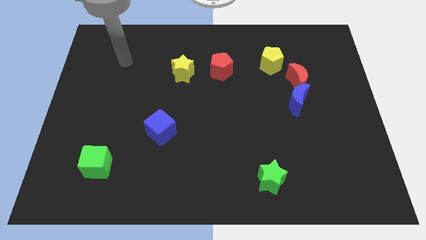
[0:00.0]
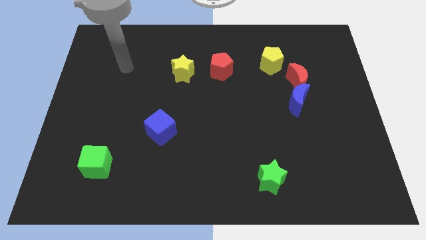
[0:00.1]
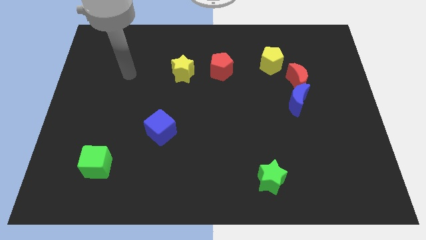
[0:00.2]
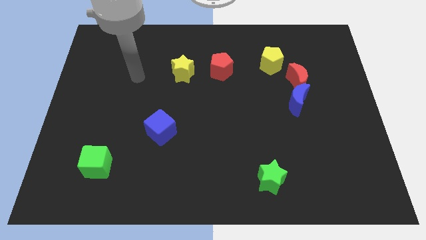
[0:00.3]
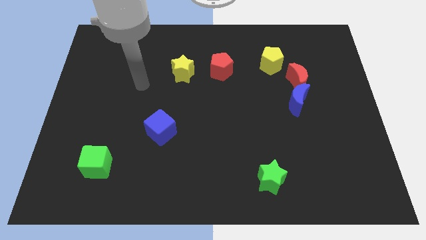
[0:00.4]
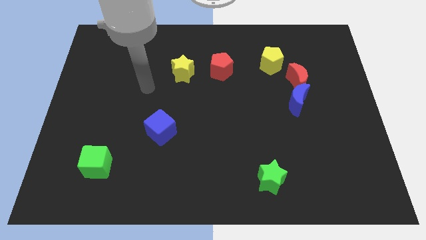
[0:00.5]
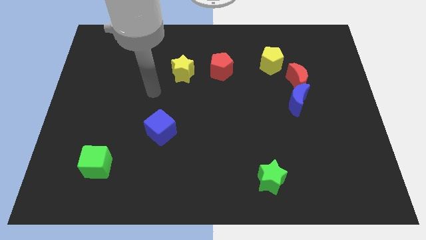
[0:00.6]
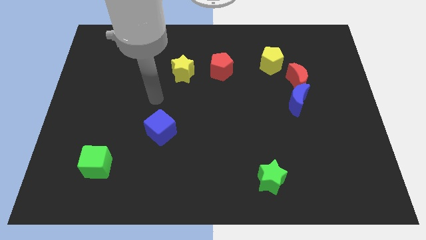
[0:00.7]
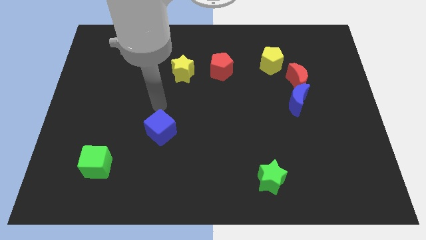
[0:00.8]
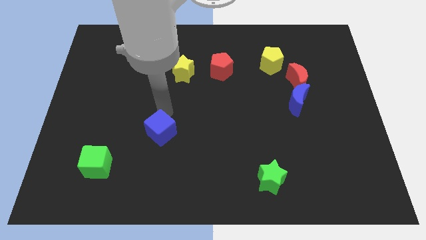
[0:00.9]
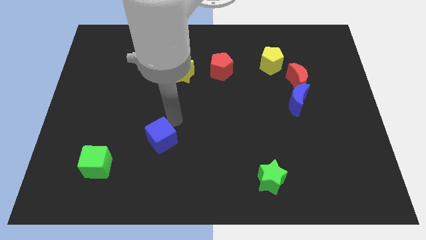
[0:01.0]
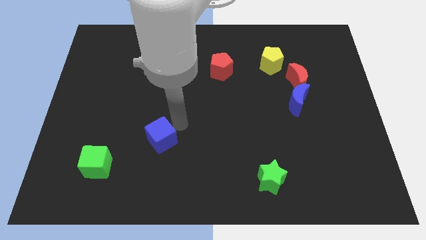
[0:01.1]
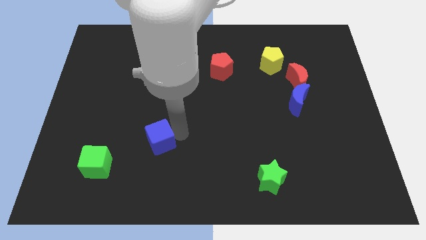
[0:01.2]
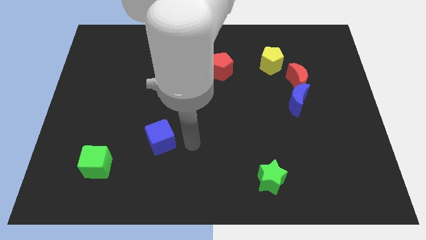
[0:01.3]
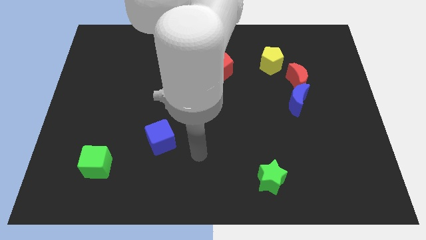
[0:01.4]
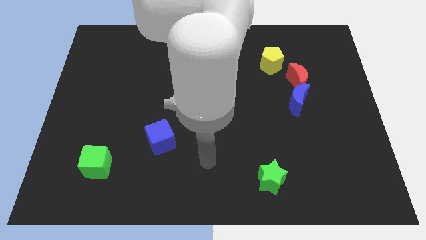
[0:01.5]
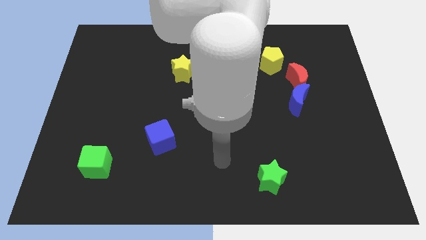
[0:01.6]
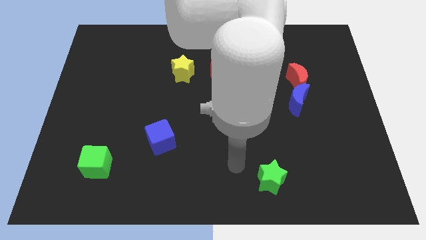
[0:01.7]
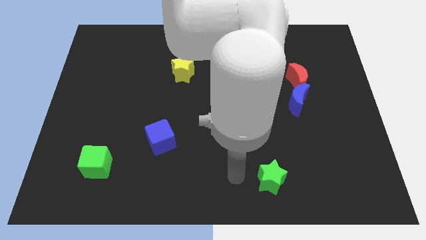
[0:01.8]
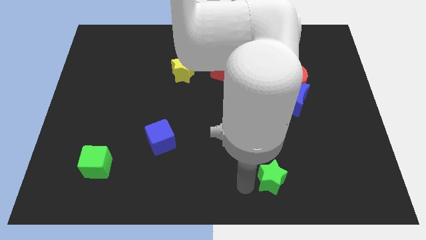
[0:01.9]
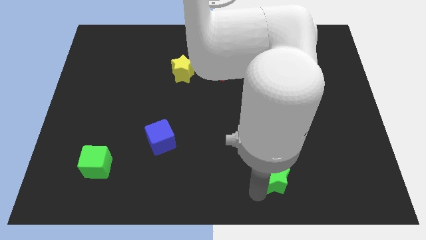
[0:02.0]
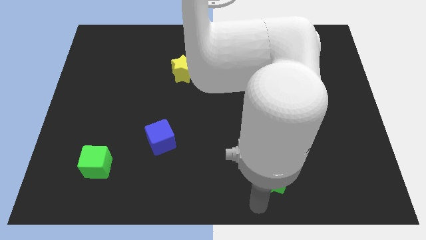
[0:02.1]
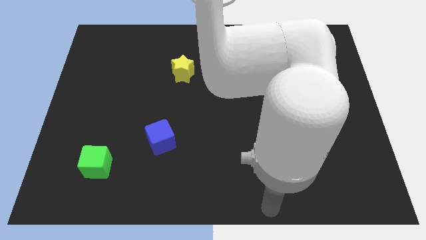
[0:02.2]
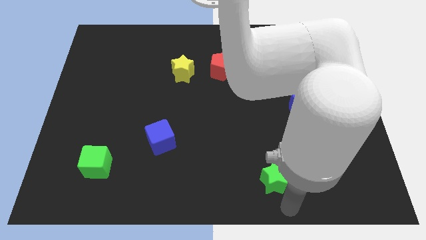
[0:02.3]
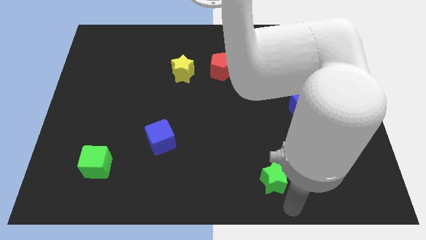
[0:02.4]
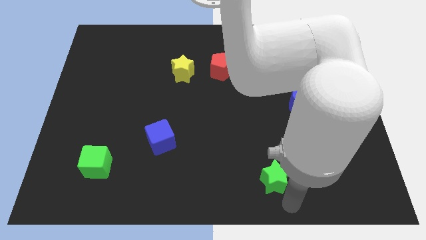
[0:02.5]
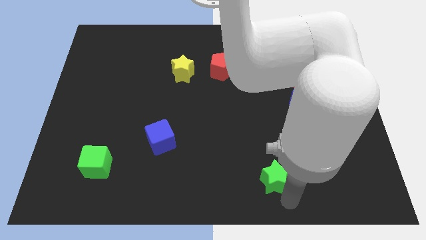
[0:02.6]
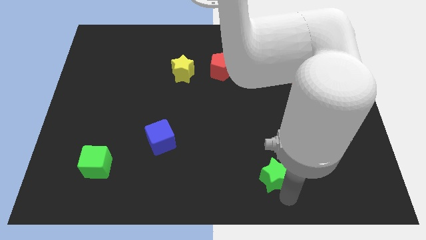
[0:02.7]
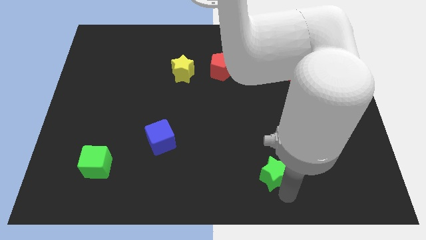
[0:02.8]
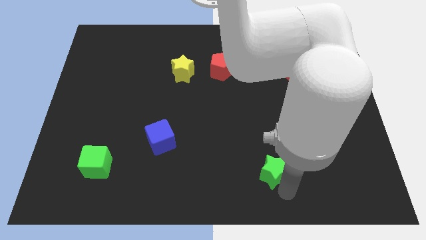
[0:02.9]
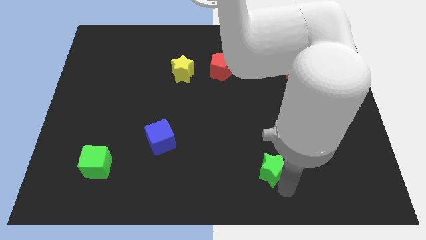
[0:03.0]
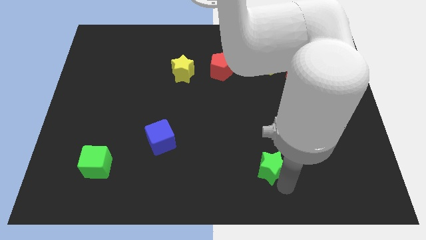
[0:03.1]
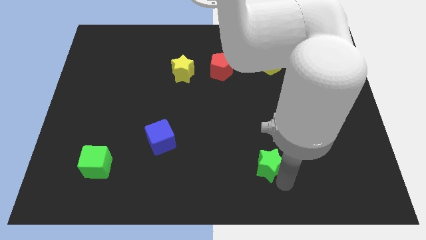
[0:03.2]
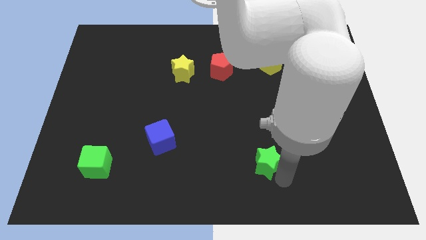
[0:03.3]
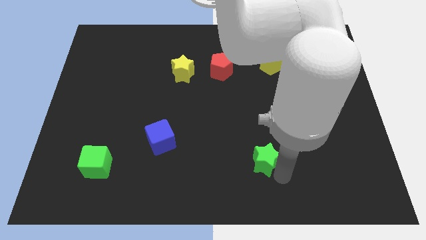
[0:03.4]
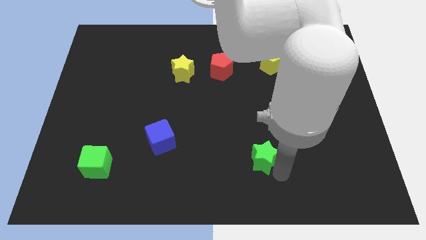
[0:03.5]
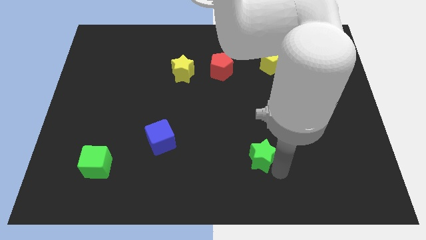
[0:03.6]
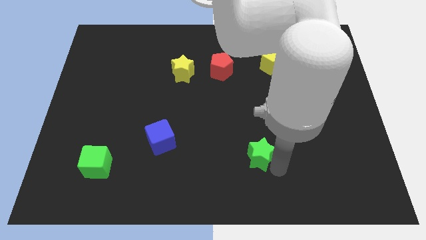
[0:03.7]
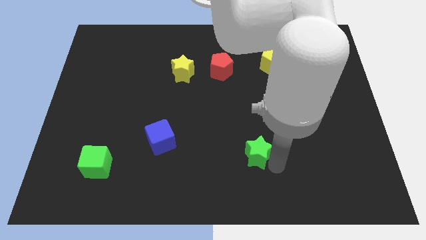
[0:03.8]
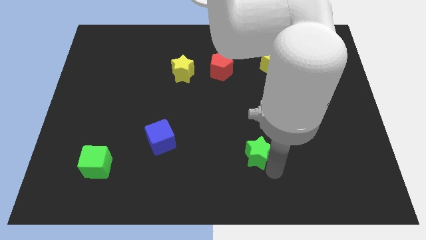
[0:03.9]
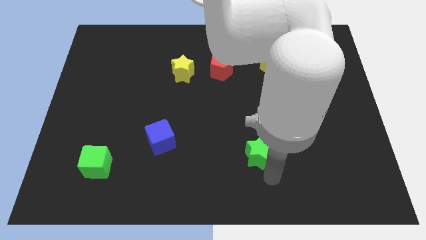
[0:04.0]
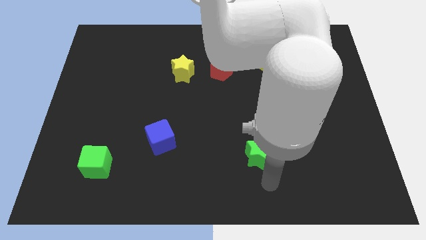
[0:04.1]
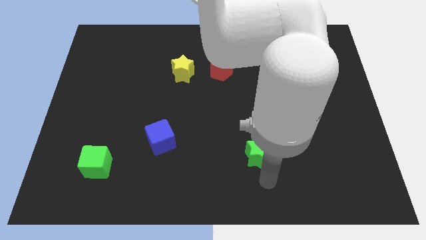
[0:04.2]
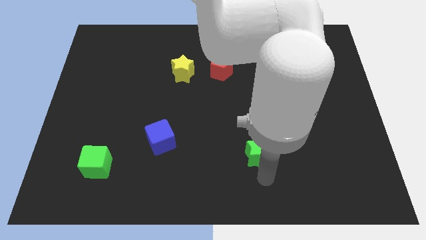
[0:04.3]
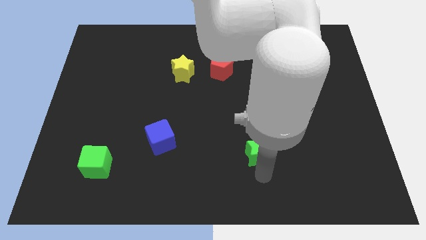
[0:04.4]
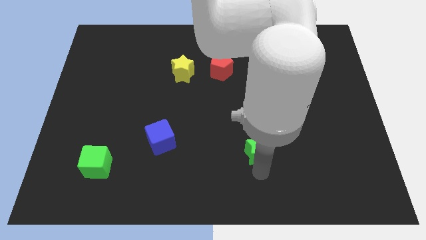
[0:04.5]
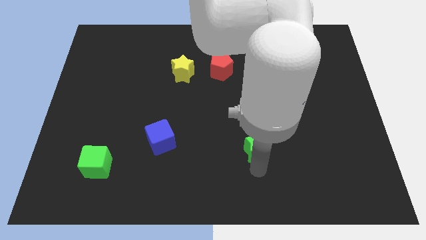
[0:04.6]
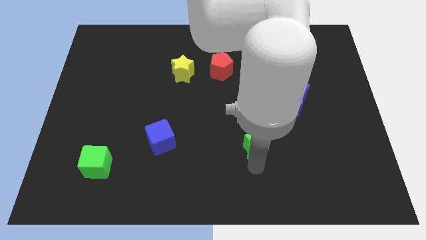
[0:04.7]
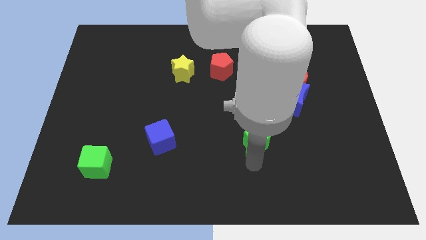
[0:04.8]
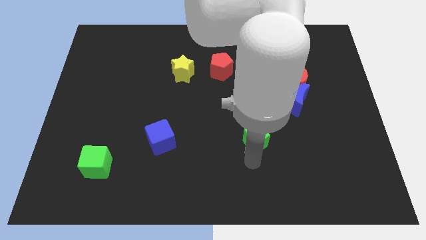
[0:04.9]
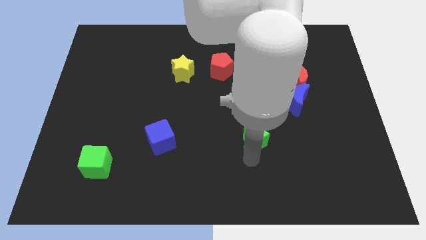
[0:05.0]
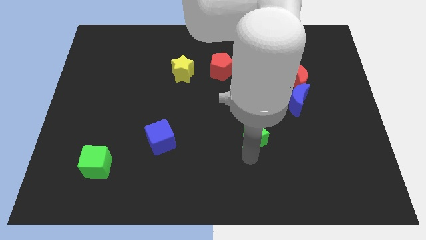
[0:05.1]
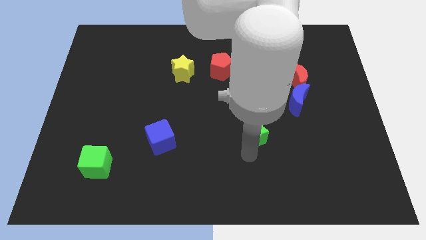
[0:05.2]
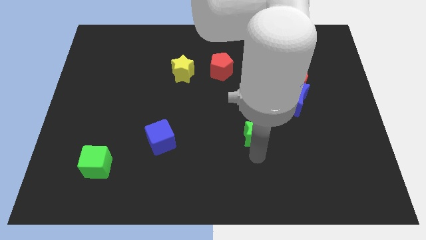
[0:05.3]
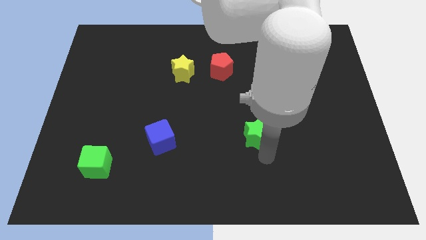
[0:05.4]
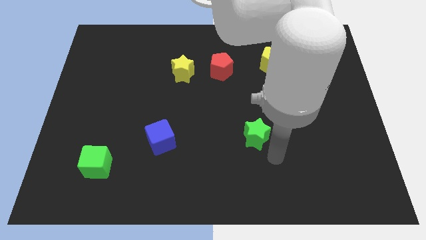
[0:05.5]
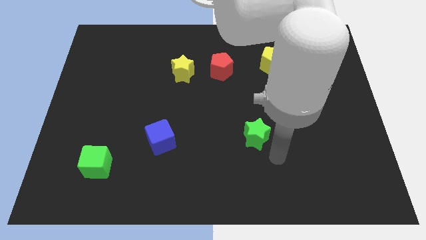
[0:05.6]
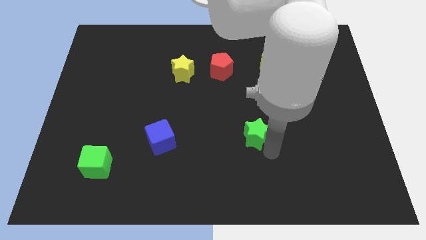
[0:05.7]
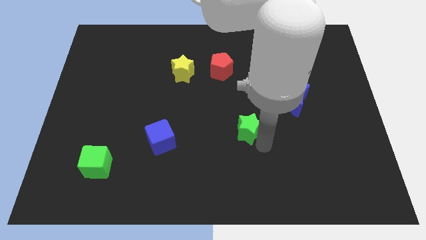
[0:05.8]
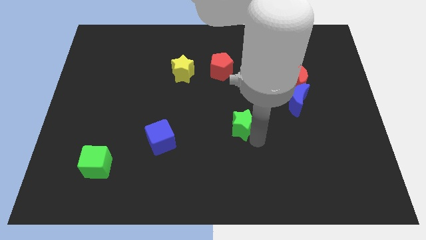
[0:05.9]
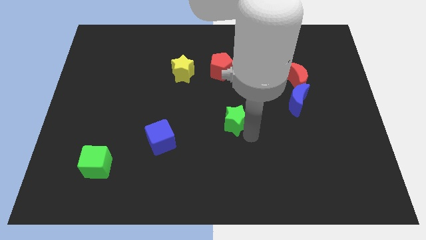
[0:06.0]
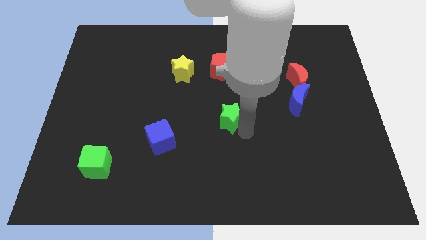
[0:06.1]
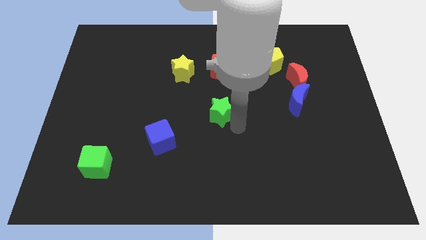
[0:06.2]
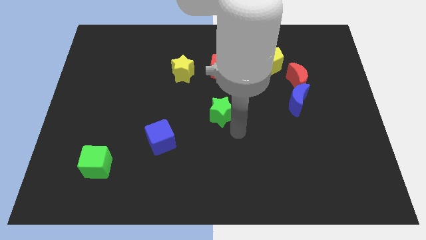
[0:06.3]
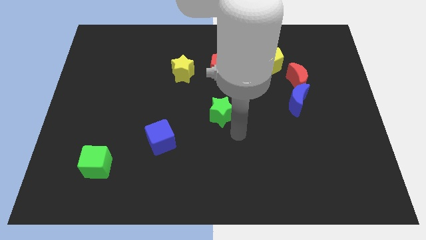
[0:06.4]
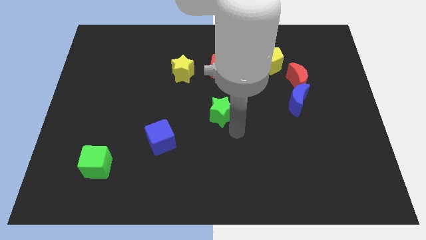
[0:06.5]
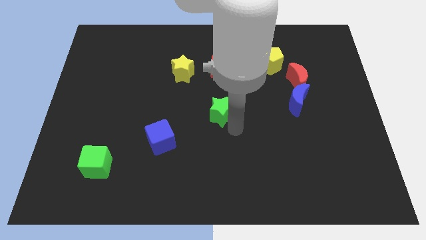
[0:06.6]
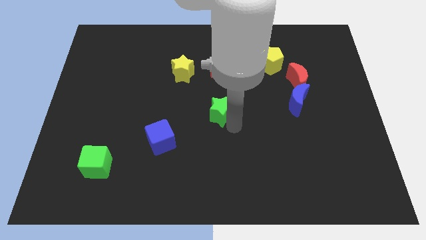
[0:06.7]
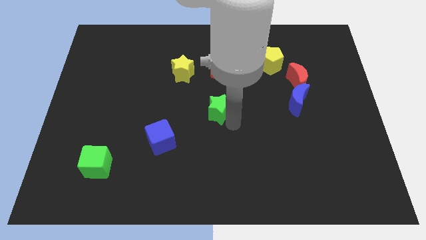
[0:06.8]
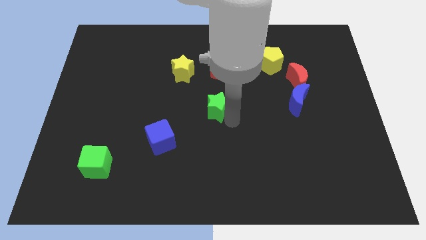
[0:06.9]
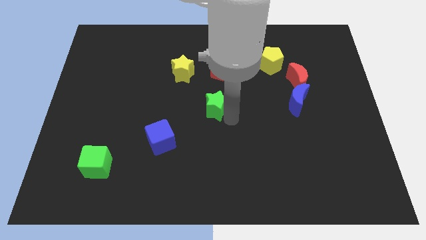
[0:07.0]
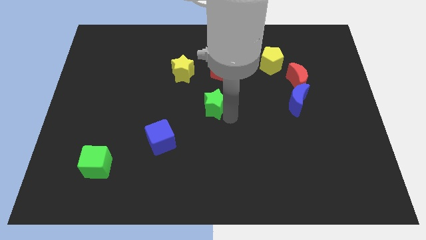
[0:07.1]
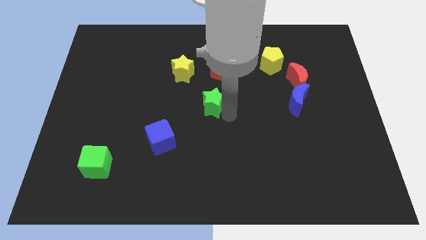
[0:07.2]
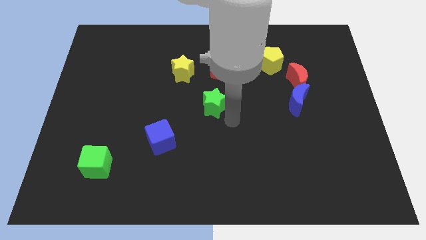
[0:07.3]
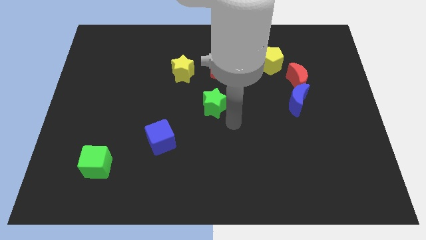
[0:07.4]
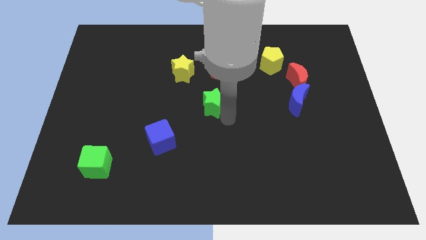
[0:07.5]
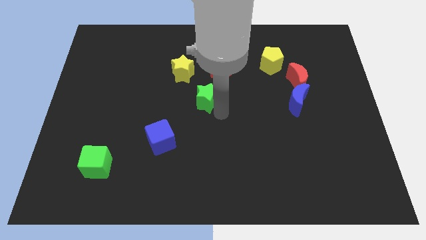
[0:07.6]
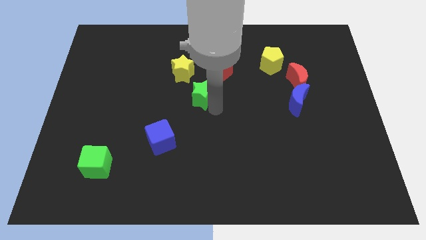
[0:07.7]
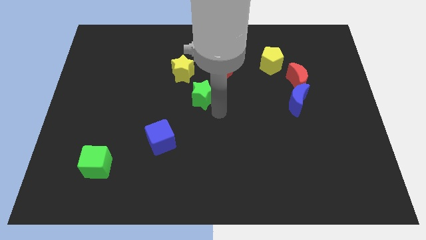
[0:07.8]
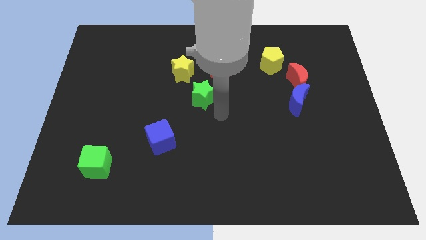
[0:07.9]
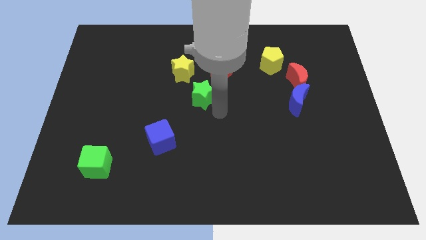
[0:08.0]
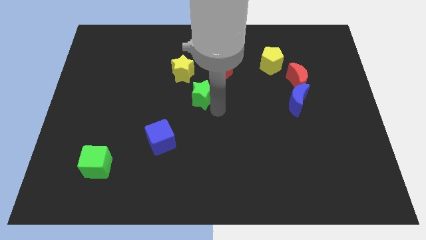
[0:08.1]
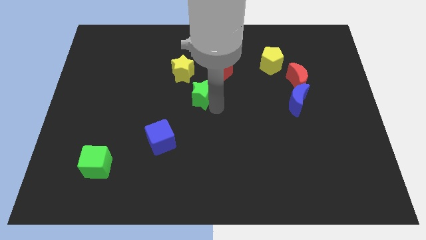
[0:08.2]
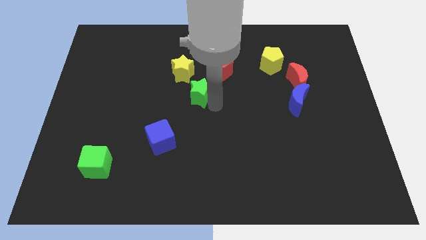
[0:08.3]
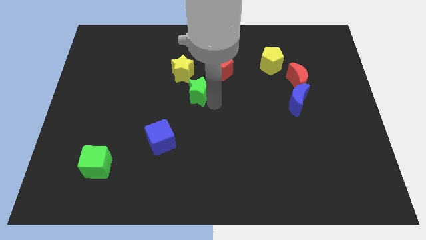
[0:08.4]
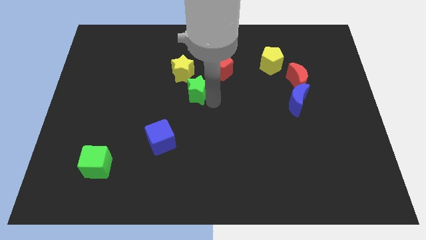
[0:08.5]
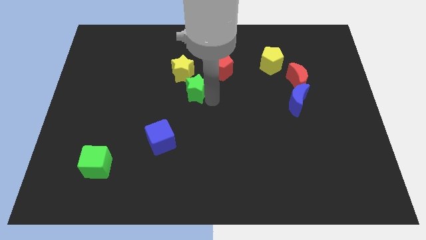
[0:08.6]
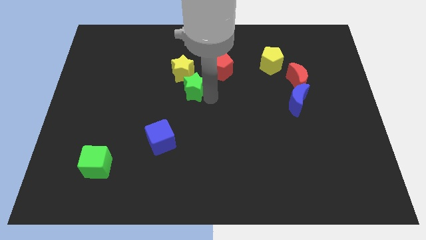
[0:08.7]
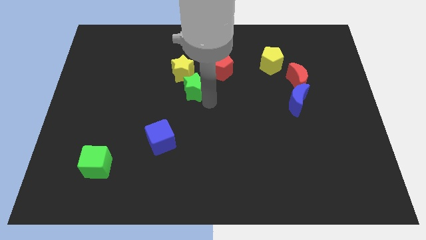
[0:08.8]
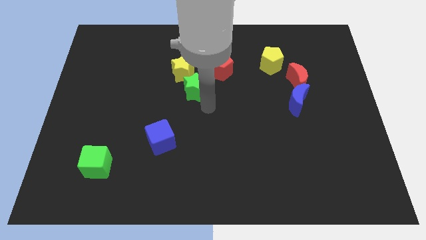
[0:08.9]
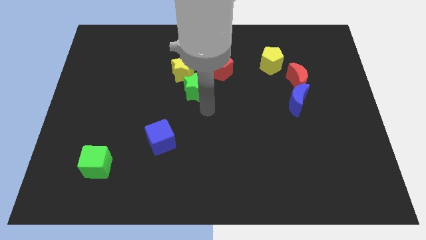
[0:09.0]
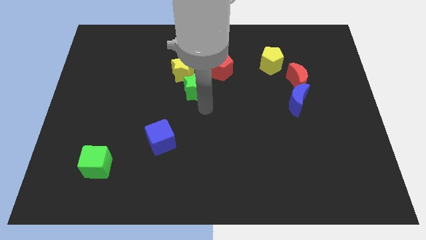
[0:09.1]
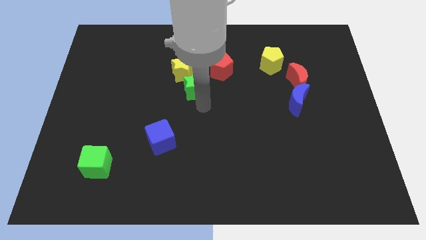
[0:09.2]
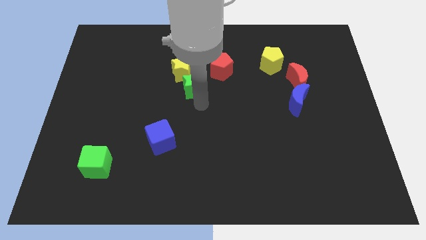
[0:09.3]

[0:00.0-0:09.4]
move the green star close to the yellow star
